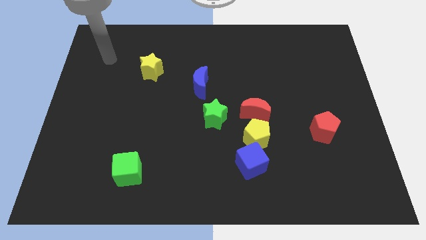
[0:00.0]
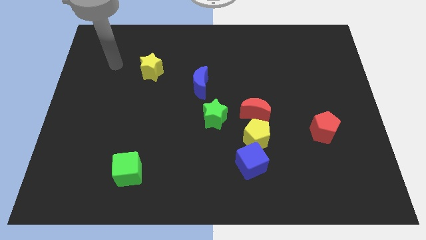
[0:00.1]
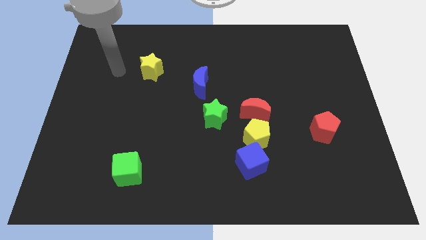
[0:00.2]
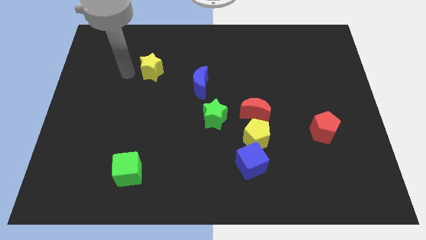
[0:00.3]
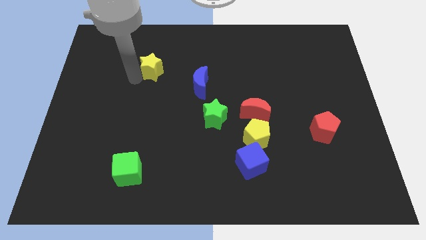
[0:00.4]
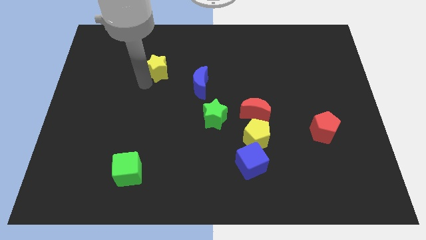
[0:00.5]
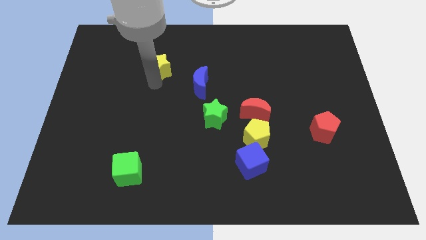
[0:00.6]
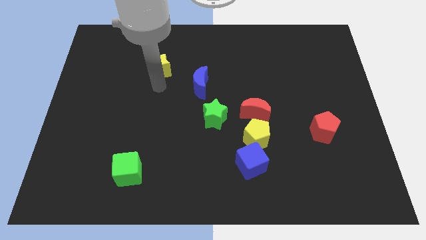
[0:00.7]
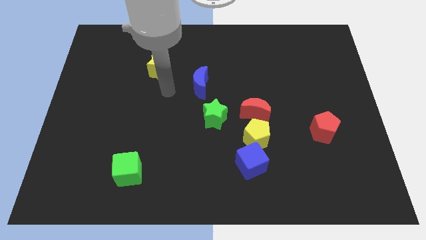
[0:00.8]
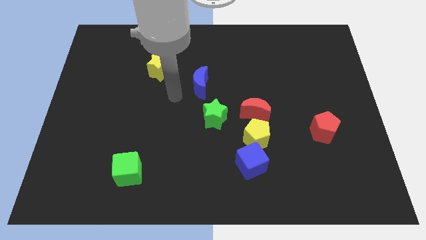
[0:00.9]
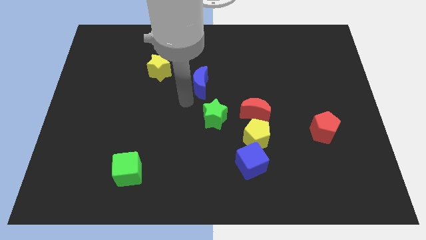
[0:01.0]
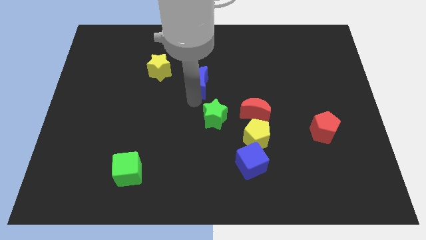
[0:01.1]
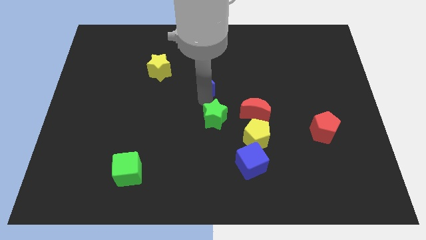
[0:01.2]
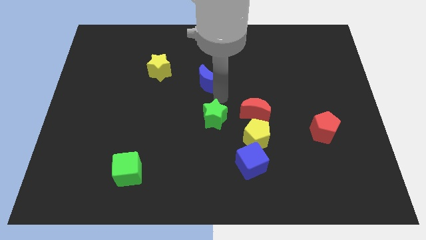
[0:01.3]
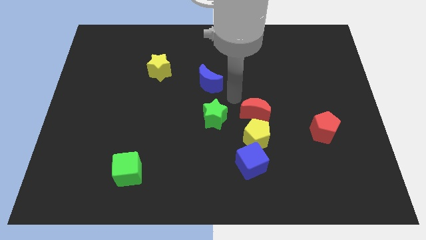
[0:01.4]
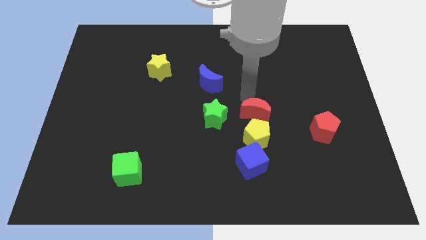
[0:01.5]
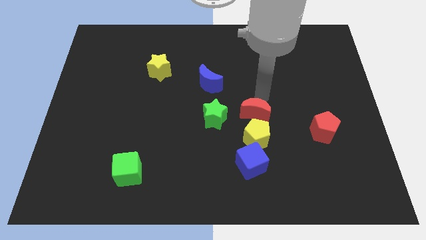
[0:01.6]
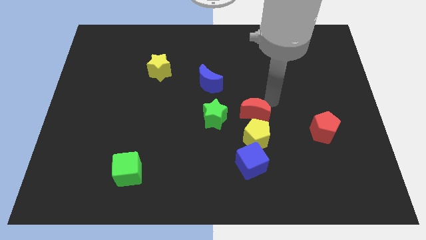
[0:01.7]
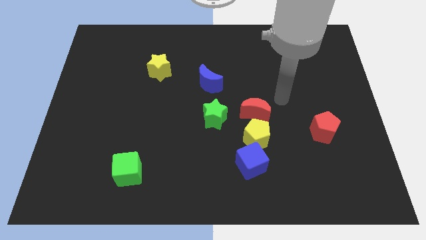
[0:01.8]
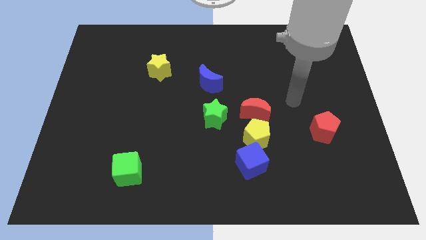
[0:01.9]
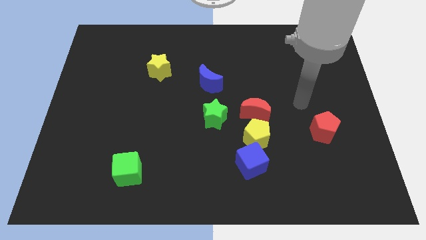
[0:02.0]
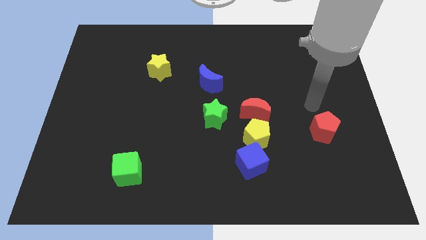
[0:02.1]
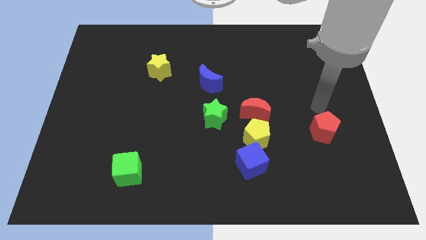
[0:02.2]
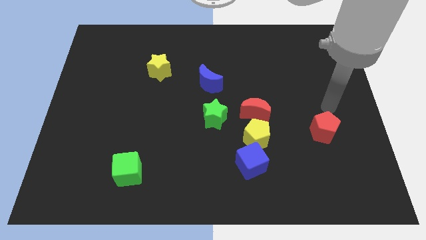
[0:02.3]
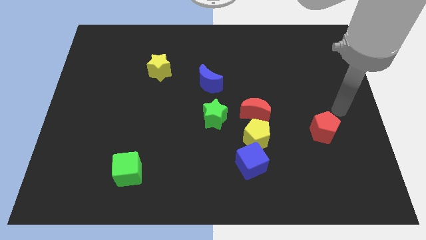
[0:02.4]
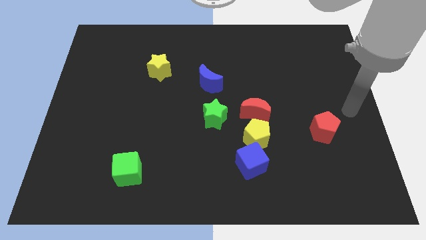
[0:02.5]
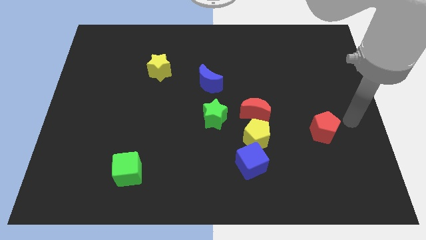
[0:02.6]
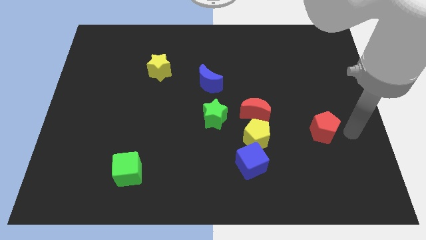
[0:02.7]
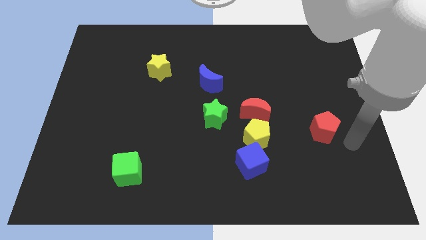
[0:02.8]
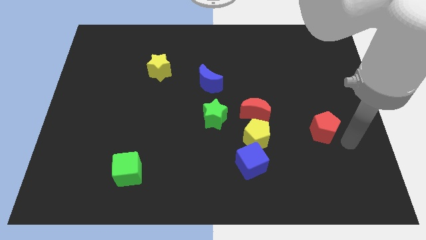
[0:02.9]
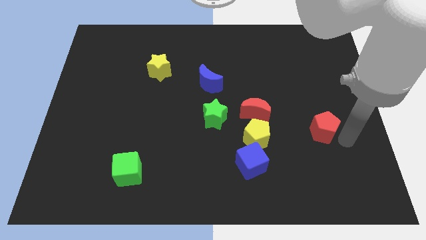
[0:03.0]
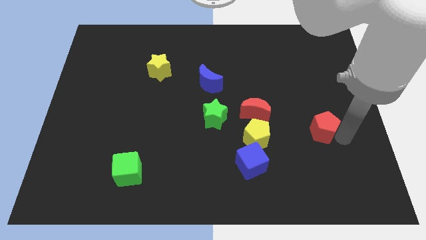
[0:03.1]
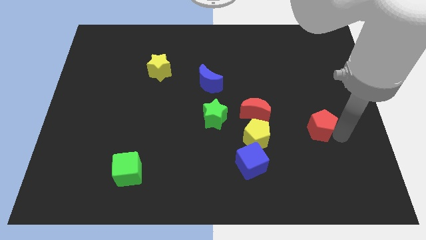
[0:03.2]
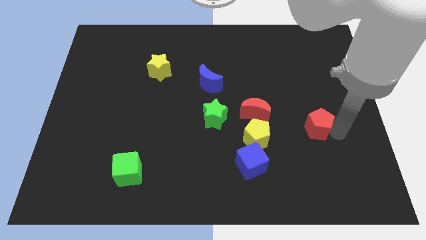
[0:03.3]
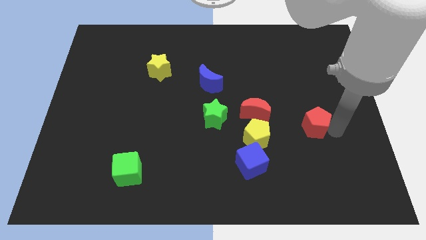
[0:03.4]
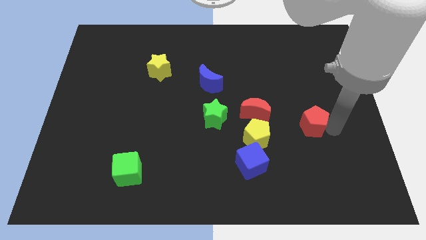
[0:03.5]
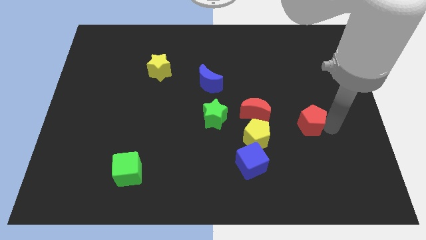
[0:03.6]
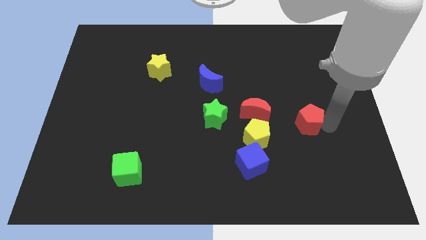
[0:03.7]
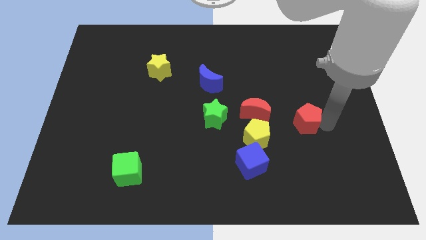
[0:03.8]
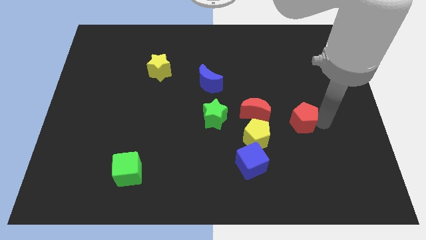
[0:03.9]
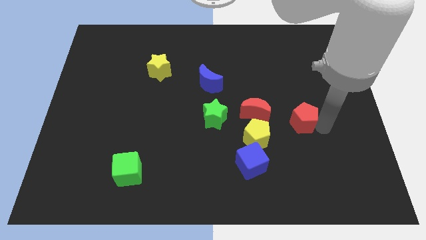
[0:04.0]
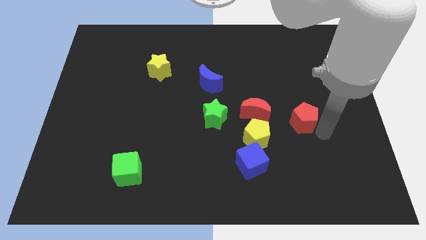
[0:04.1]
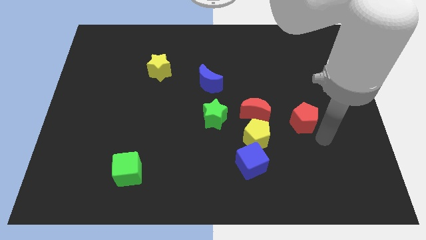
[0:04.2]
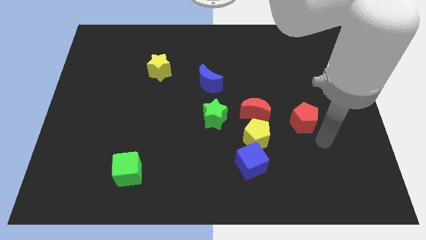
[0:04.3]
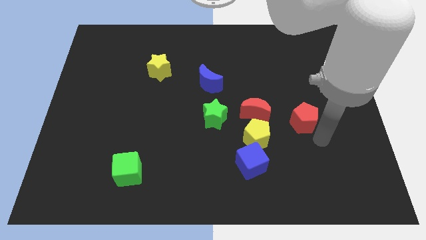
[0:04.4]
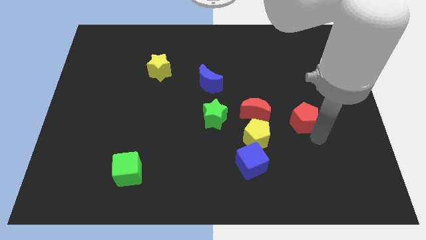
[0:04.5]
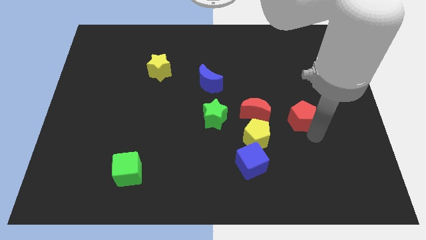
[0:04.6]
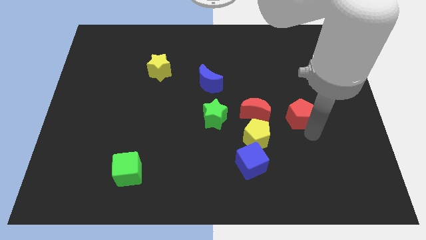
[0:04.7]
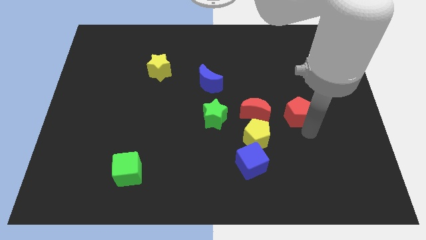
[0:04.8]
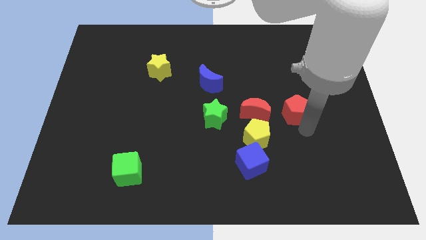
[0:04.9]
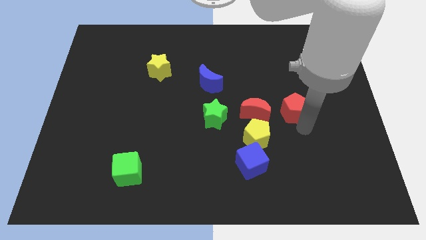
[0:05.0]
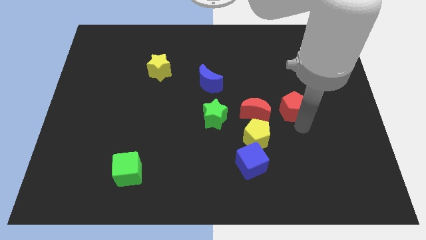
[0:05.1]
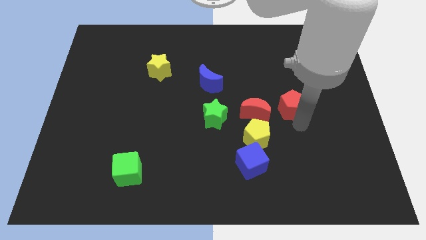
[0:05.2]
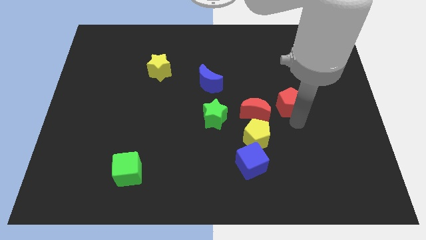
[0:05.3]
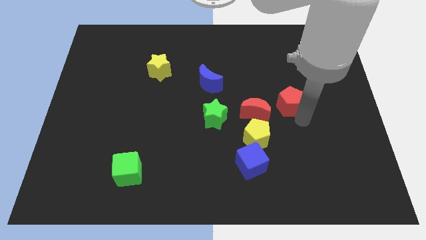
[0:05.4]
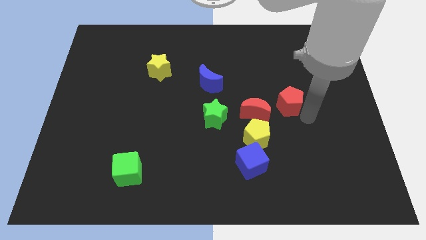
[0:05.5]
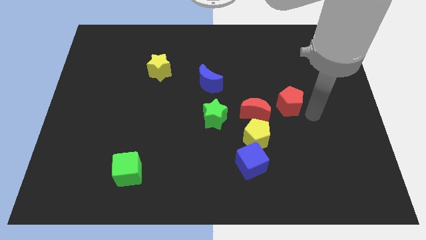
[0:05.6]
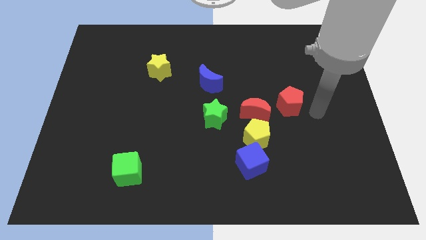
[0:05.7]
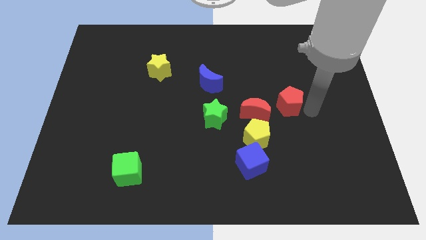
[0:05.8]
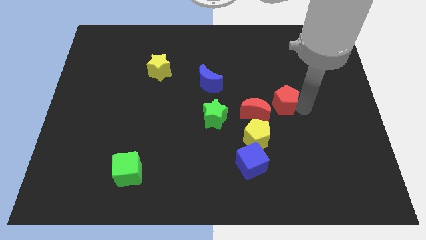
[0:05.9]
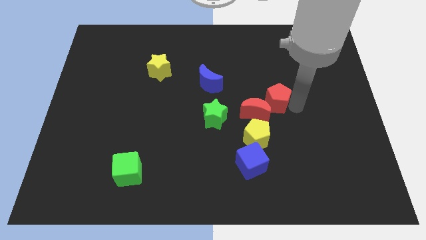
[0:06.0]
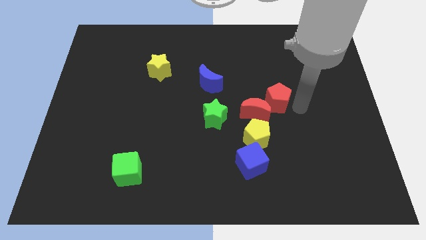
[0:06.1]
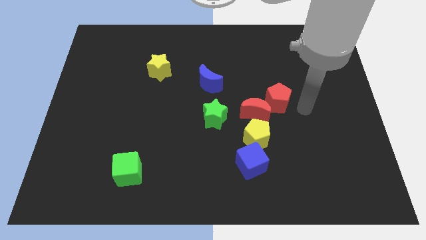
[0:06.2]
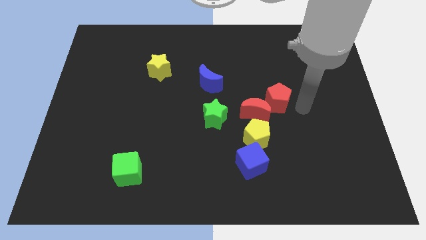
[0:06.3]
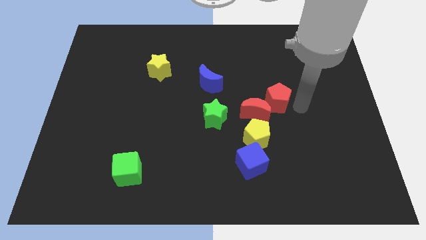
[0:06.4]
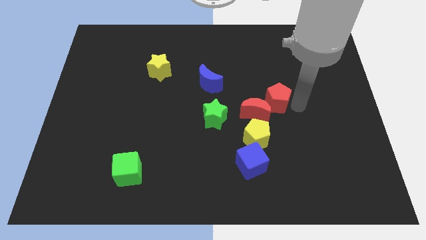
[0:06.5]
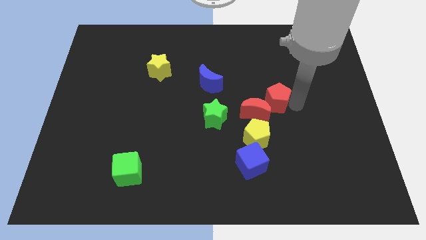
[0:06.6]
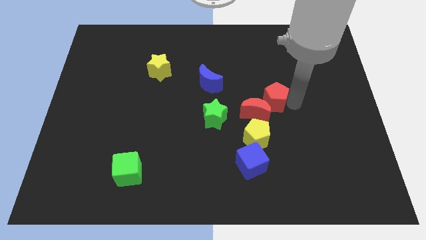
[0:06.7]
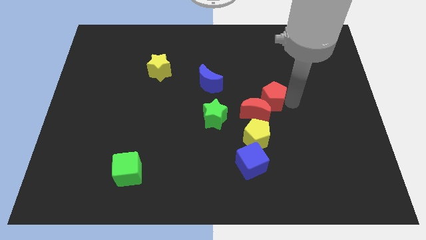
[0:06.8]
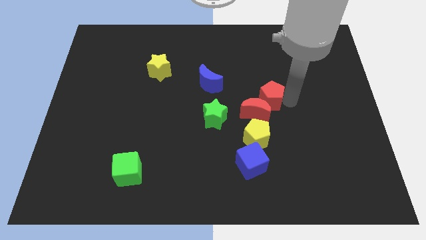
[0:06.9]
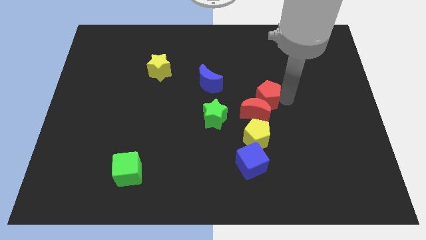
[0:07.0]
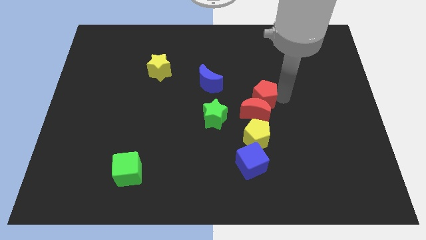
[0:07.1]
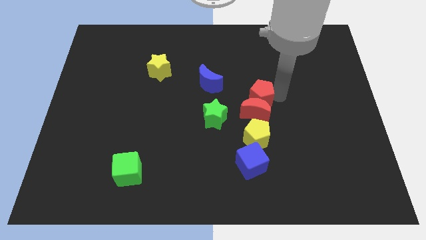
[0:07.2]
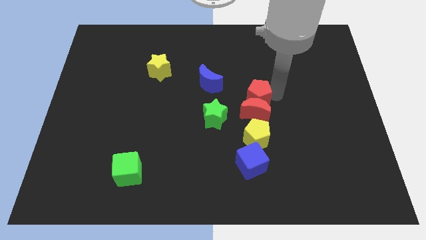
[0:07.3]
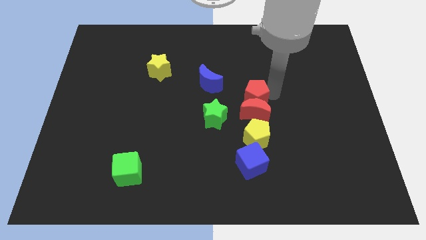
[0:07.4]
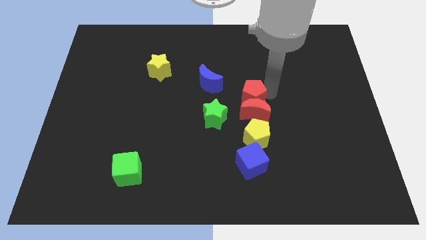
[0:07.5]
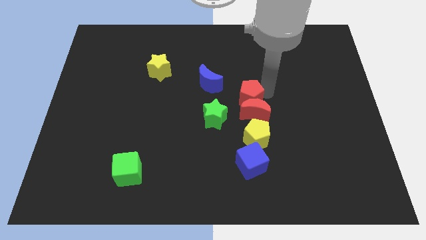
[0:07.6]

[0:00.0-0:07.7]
slide the red pentagon to the bottom right side of the blue moon
